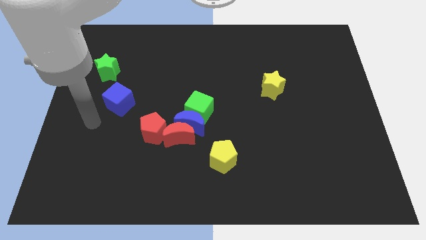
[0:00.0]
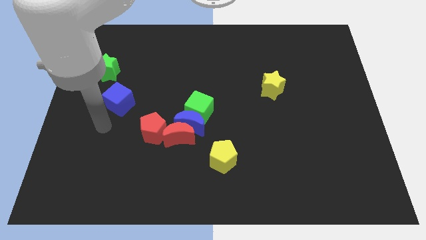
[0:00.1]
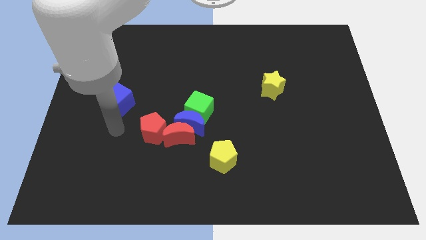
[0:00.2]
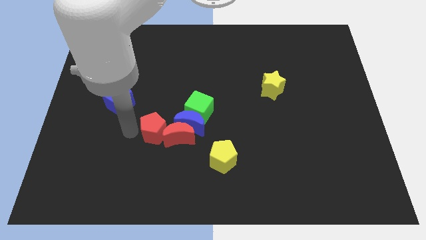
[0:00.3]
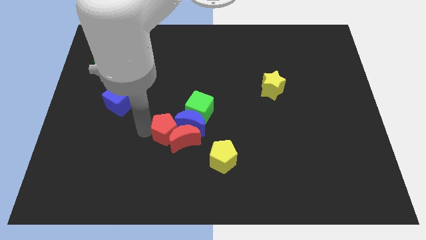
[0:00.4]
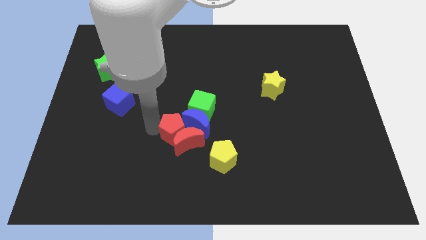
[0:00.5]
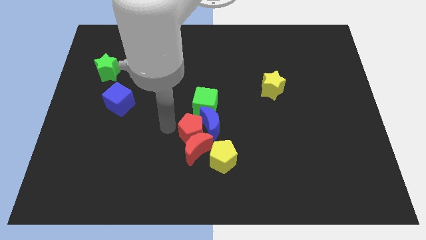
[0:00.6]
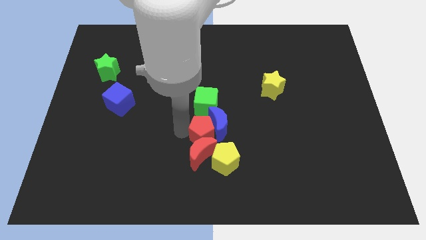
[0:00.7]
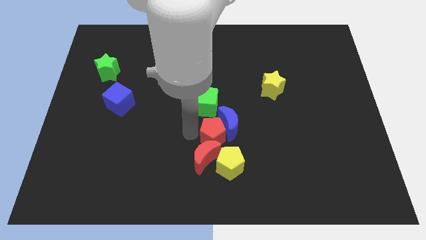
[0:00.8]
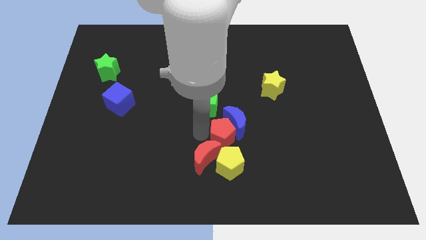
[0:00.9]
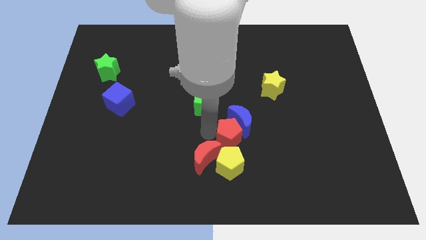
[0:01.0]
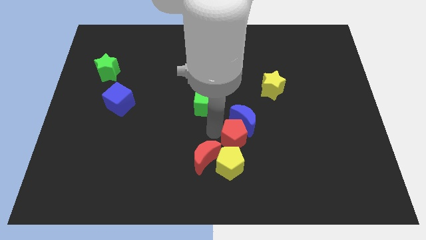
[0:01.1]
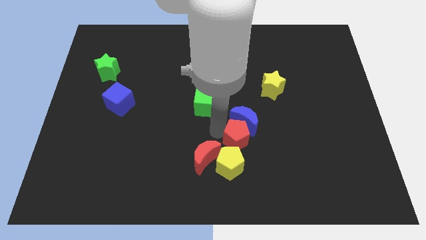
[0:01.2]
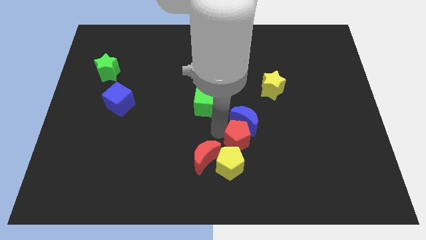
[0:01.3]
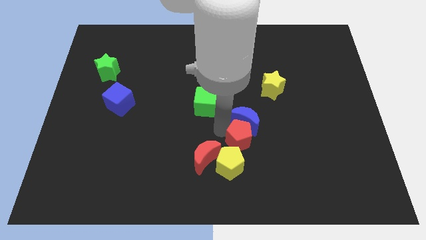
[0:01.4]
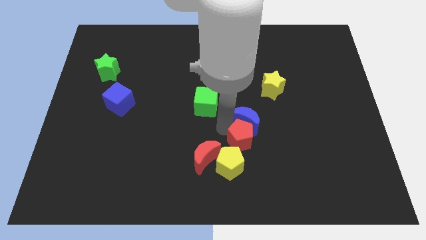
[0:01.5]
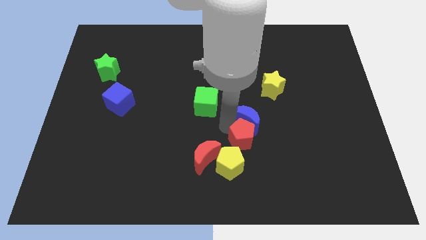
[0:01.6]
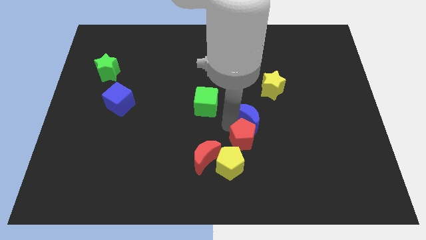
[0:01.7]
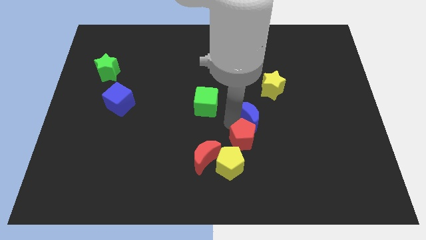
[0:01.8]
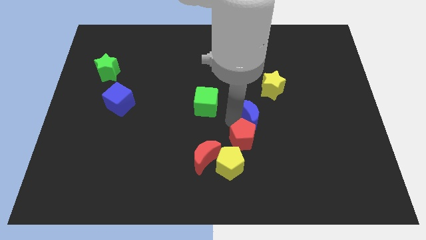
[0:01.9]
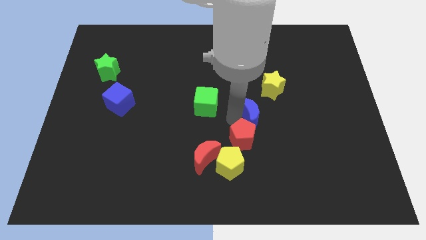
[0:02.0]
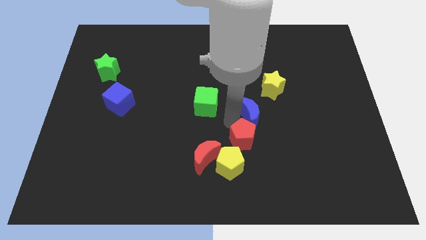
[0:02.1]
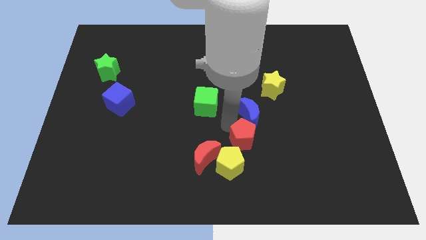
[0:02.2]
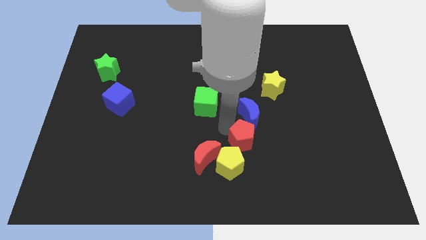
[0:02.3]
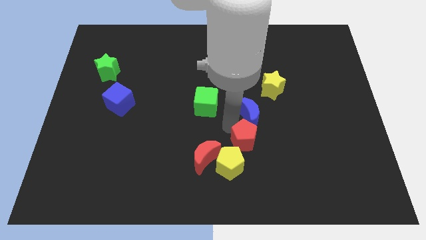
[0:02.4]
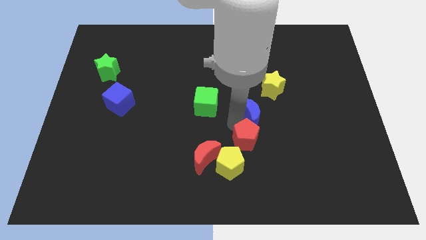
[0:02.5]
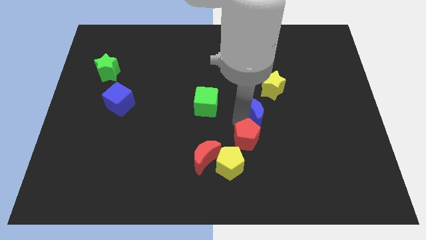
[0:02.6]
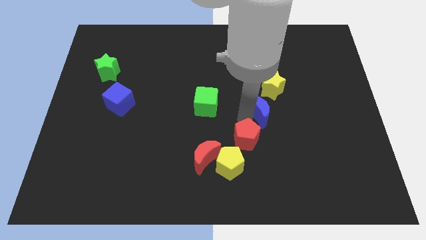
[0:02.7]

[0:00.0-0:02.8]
pull the blue moon apart from the clump

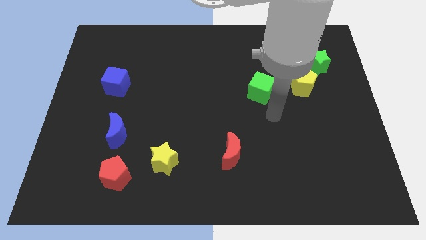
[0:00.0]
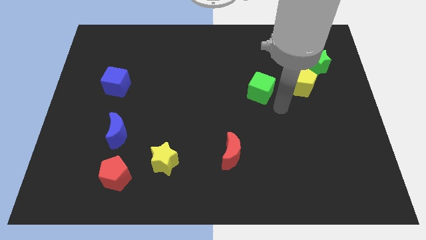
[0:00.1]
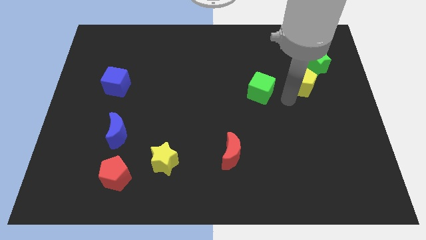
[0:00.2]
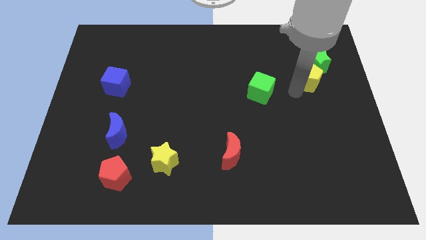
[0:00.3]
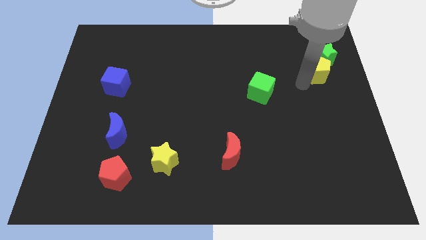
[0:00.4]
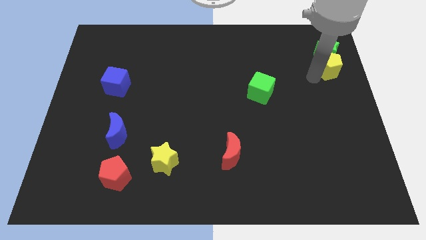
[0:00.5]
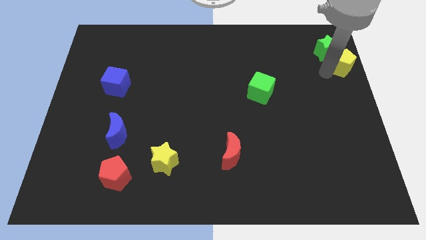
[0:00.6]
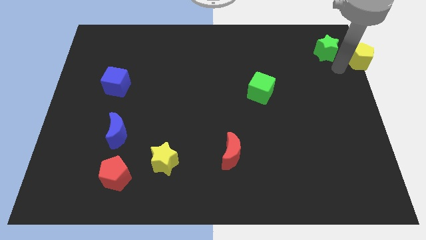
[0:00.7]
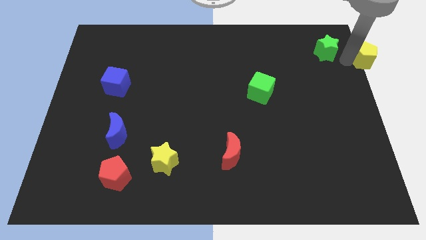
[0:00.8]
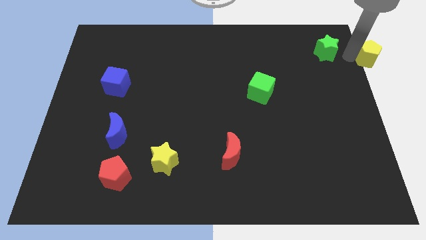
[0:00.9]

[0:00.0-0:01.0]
move the green star away from the yellow pentagon

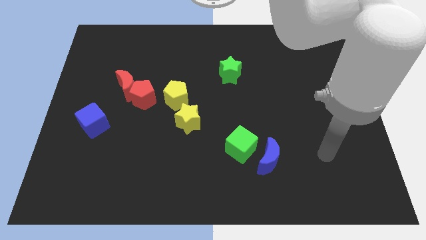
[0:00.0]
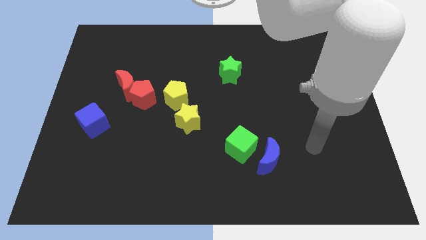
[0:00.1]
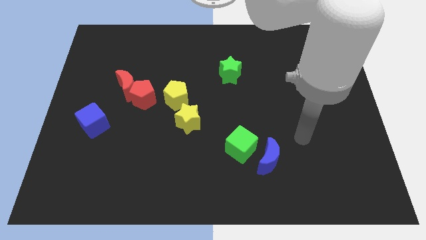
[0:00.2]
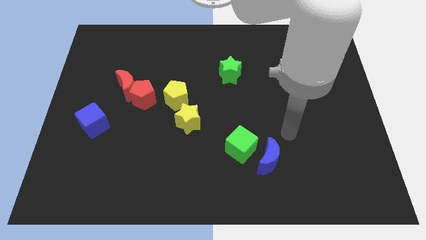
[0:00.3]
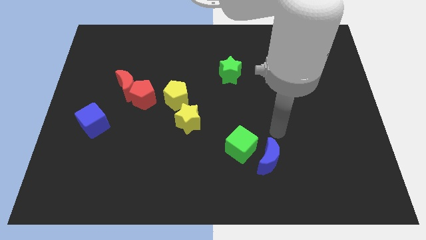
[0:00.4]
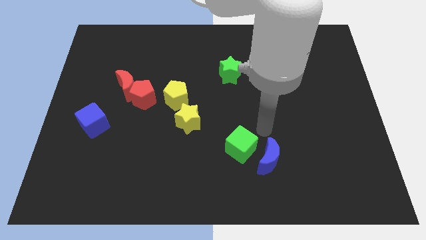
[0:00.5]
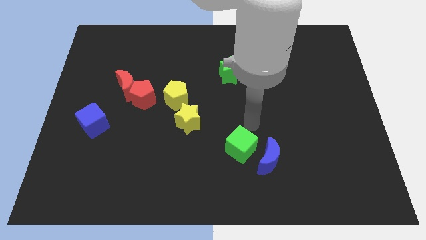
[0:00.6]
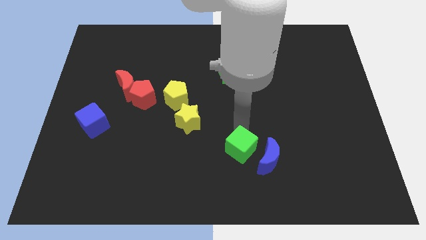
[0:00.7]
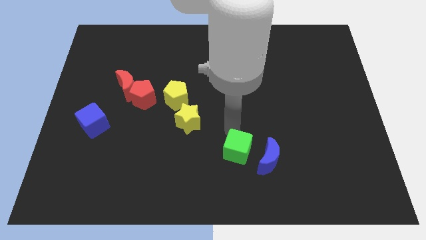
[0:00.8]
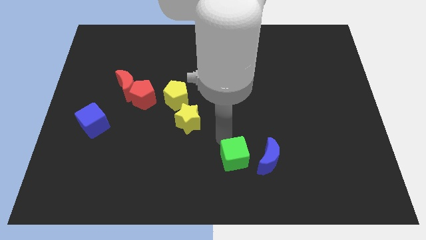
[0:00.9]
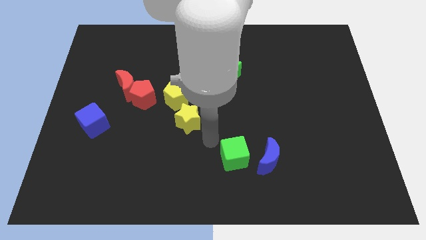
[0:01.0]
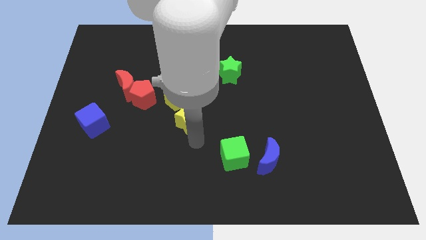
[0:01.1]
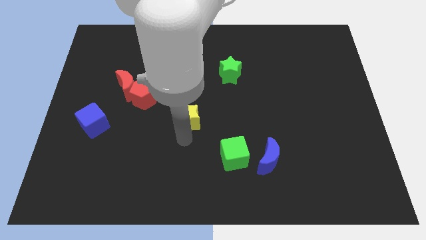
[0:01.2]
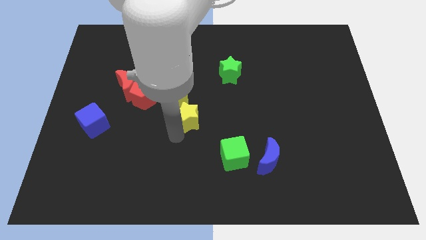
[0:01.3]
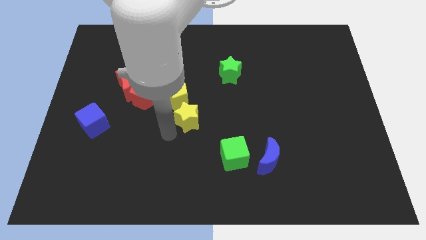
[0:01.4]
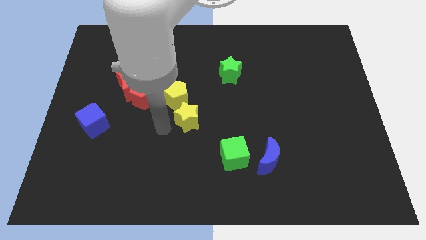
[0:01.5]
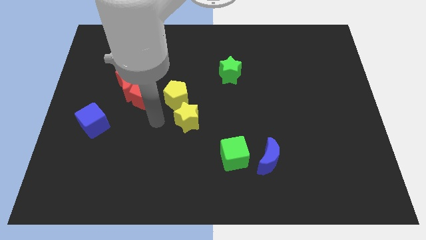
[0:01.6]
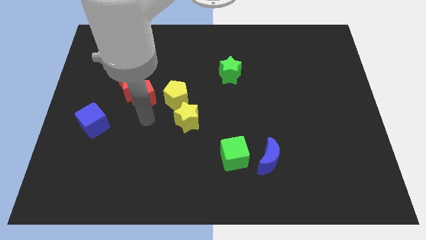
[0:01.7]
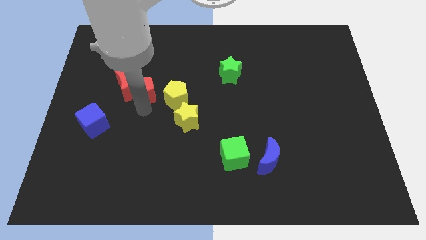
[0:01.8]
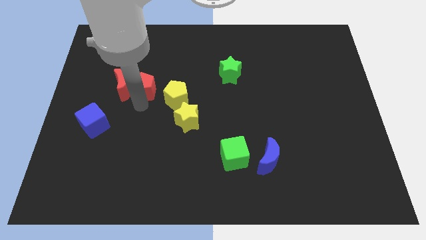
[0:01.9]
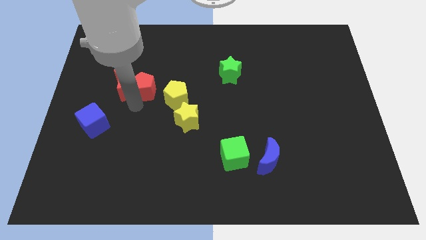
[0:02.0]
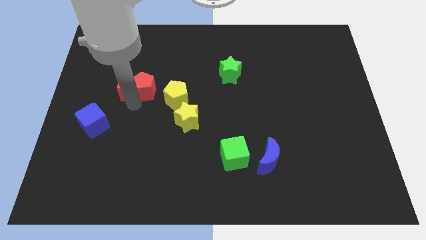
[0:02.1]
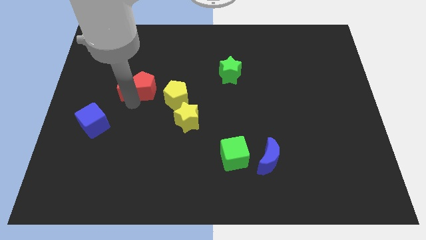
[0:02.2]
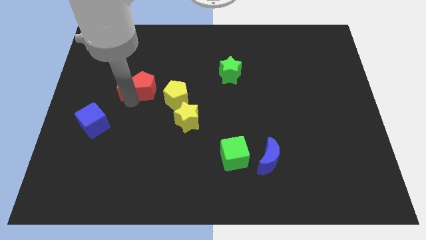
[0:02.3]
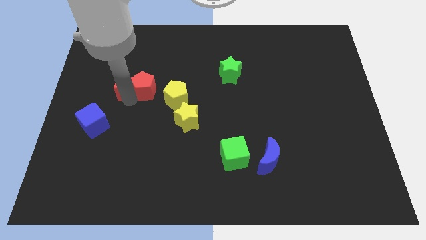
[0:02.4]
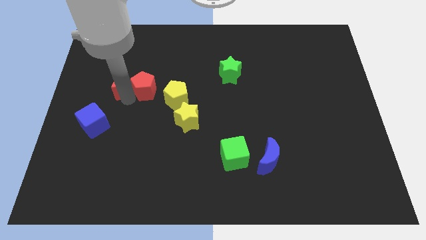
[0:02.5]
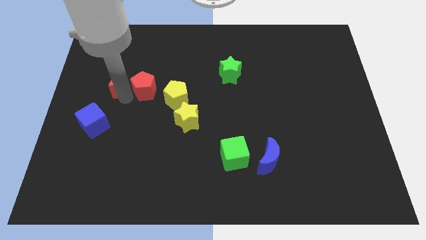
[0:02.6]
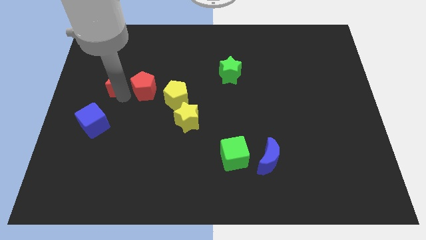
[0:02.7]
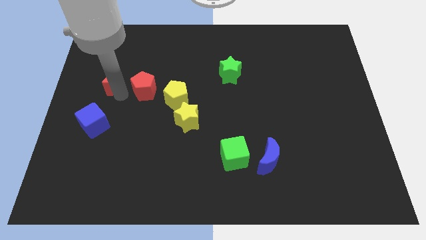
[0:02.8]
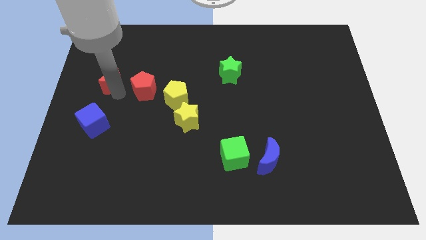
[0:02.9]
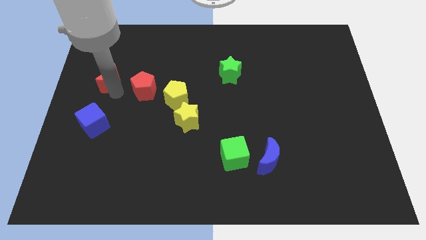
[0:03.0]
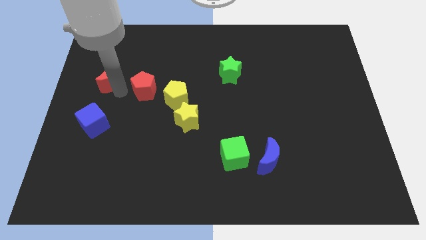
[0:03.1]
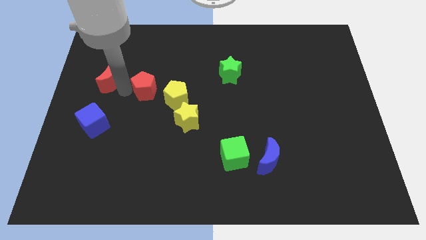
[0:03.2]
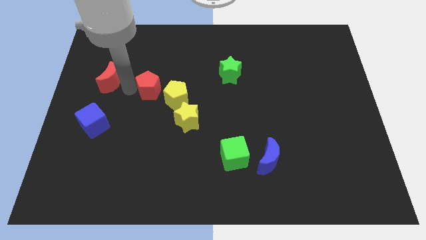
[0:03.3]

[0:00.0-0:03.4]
move the red moon away from the red pentagon

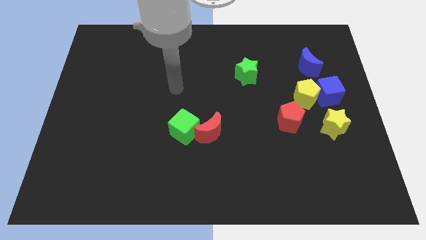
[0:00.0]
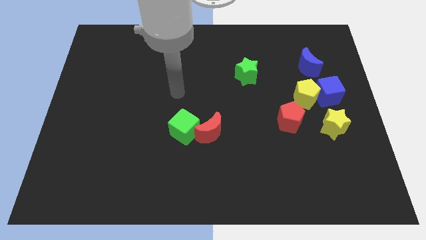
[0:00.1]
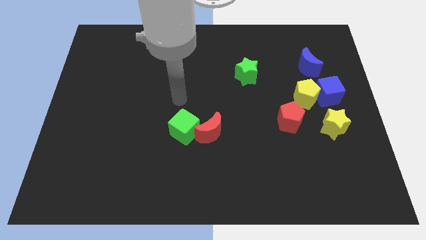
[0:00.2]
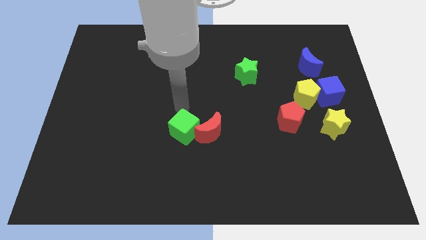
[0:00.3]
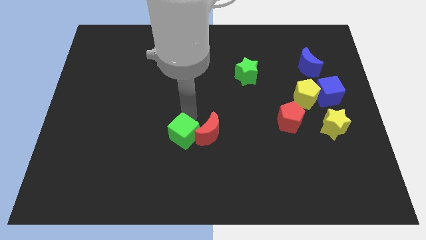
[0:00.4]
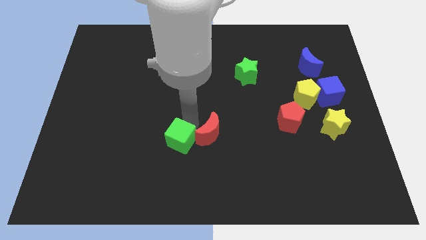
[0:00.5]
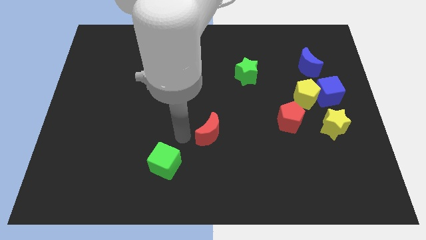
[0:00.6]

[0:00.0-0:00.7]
pull the red moon apart from the green cube

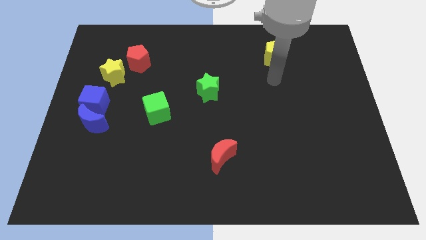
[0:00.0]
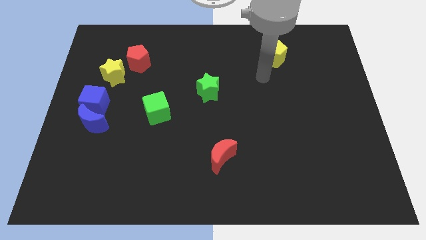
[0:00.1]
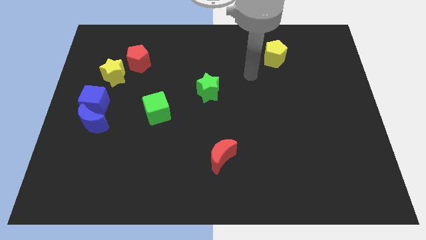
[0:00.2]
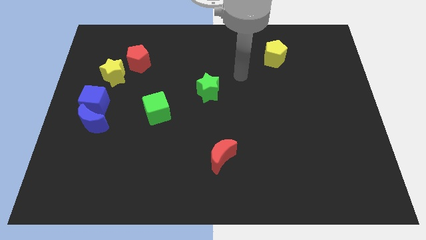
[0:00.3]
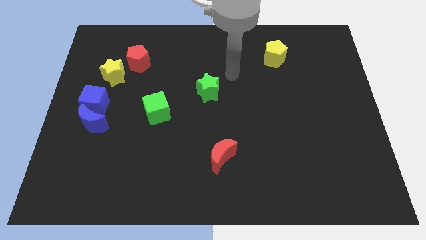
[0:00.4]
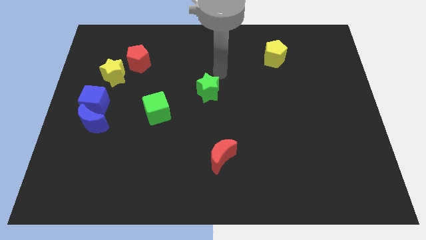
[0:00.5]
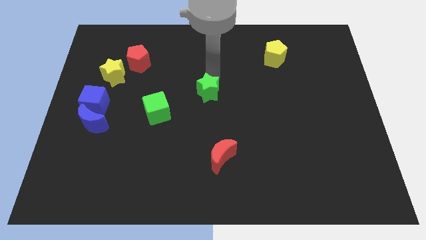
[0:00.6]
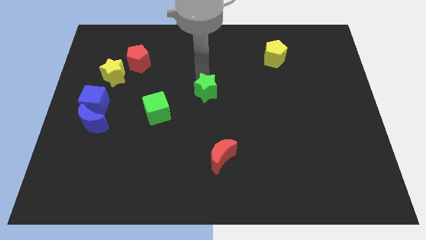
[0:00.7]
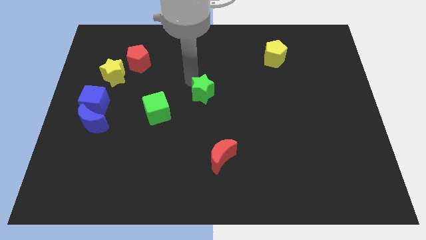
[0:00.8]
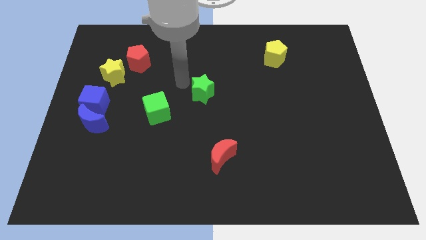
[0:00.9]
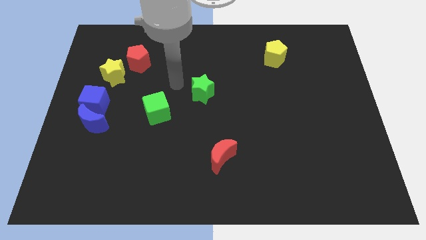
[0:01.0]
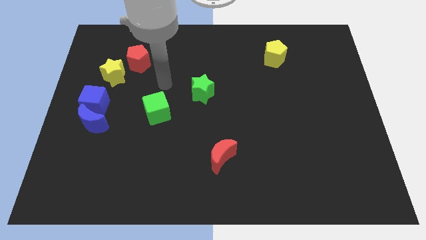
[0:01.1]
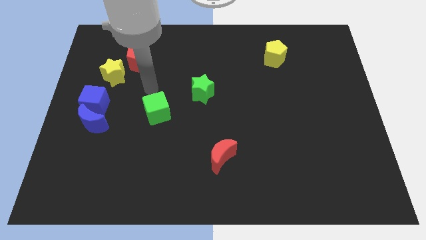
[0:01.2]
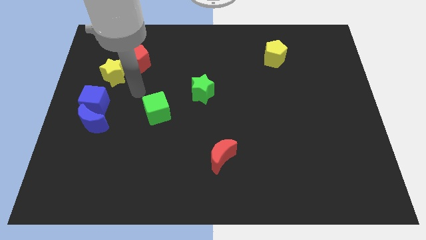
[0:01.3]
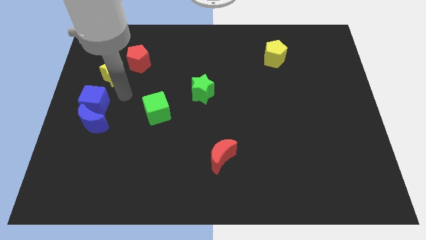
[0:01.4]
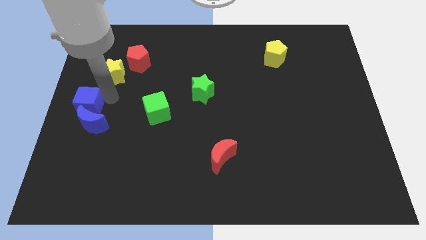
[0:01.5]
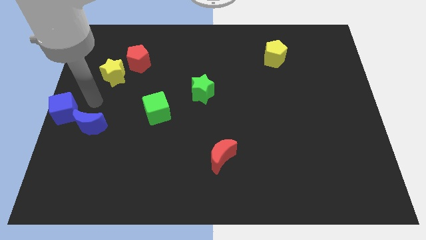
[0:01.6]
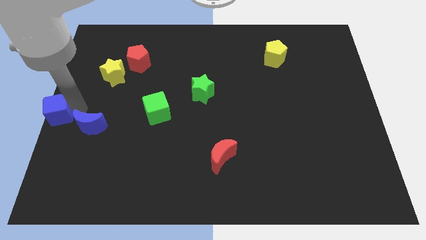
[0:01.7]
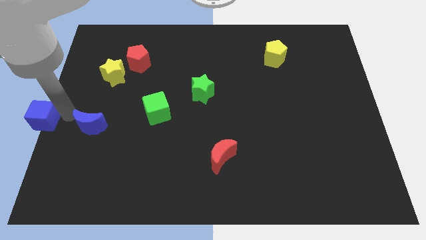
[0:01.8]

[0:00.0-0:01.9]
pull the blue moon apart from the blue cube
